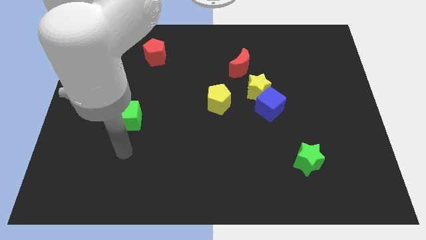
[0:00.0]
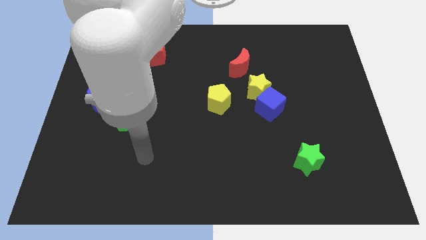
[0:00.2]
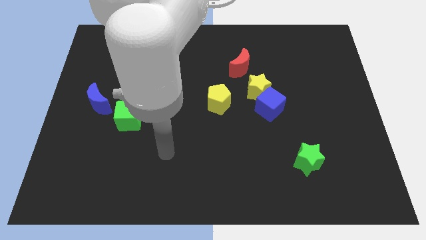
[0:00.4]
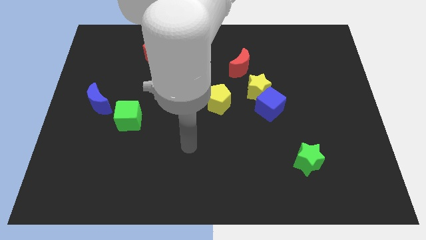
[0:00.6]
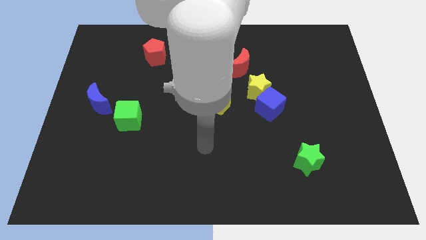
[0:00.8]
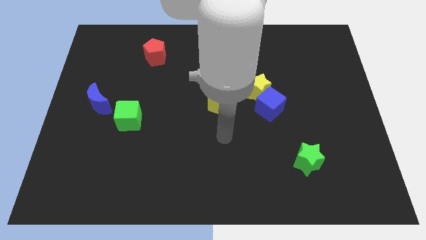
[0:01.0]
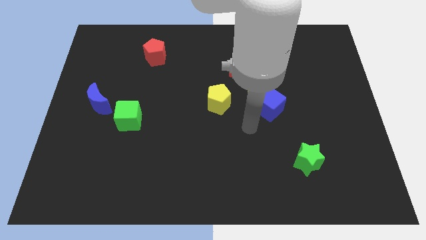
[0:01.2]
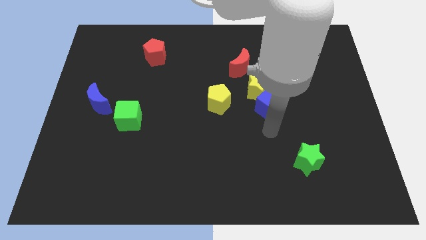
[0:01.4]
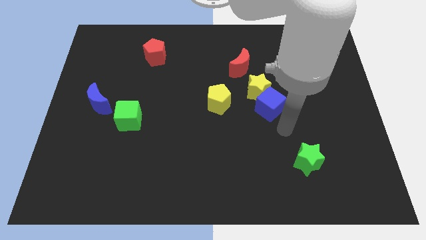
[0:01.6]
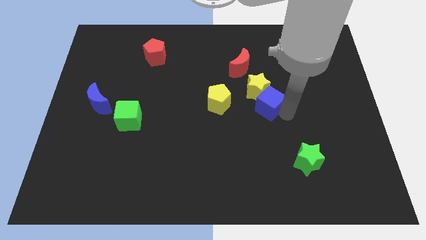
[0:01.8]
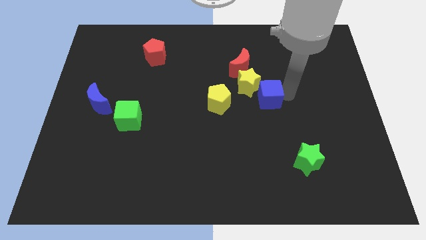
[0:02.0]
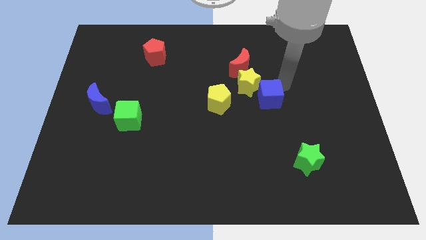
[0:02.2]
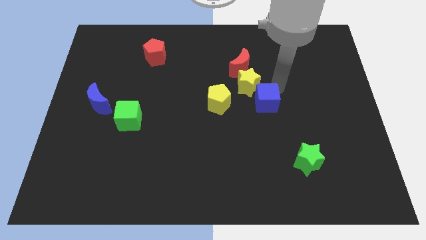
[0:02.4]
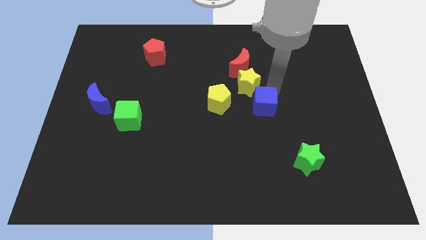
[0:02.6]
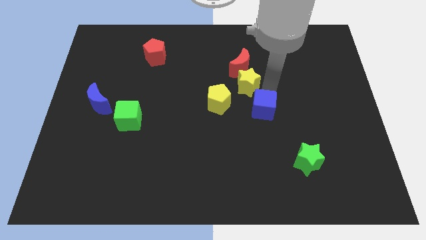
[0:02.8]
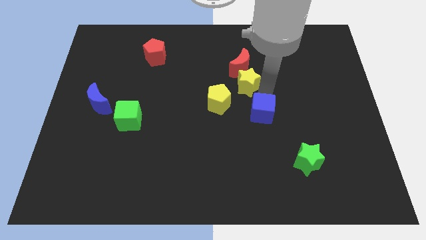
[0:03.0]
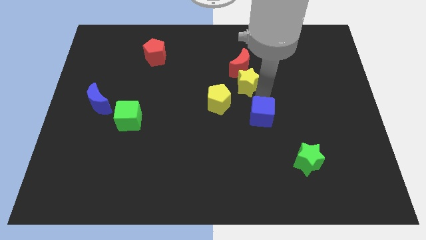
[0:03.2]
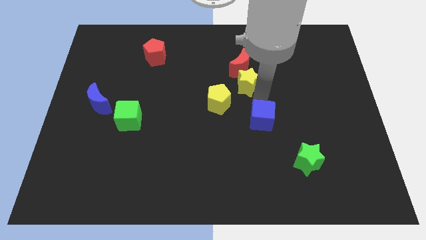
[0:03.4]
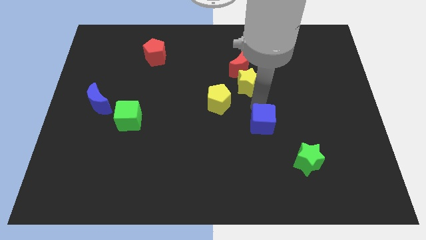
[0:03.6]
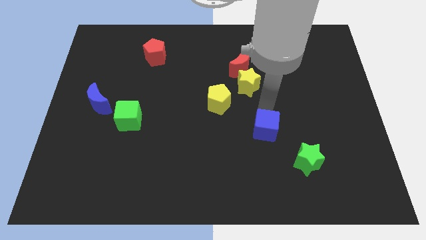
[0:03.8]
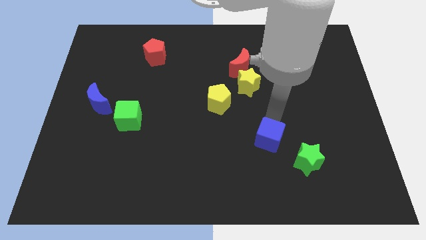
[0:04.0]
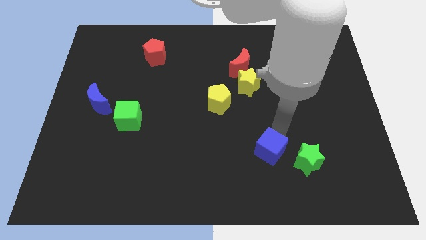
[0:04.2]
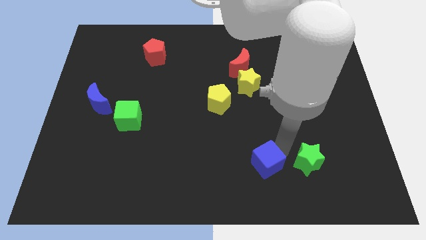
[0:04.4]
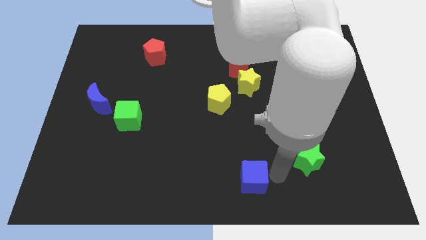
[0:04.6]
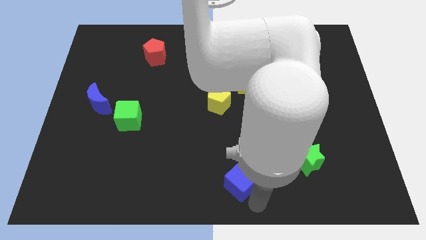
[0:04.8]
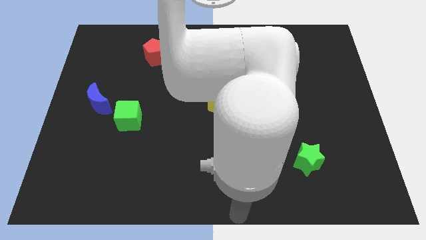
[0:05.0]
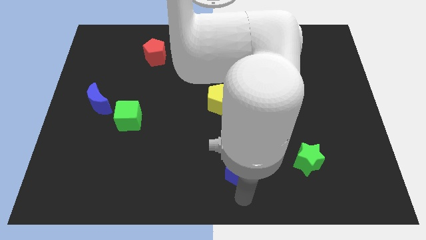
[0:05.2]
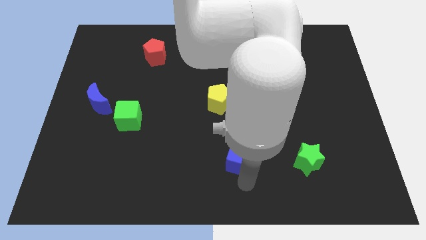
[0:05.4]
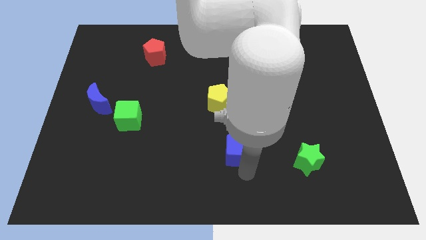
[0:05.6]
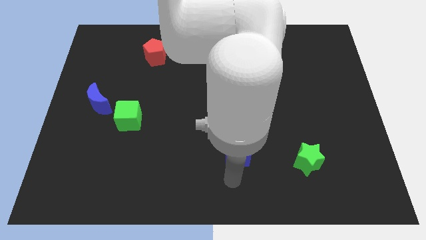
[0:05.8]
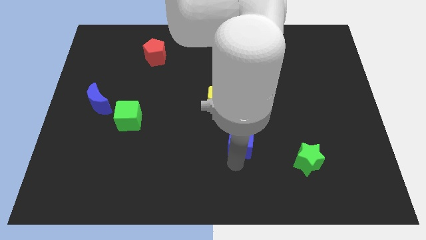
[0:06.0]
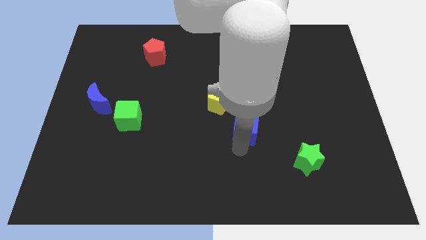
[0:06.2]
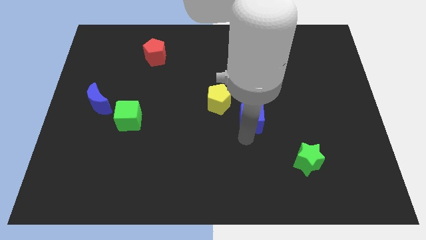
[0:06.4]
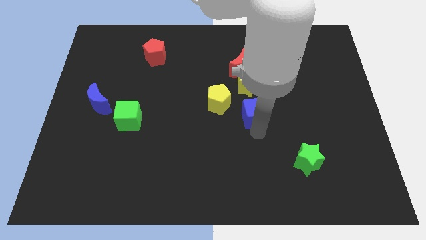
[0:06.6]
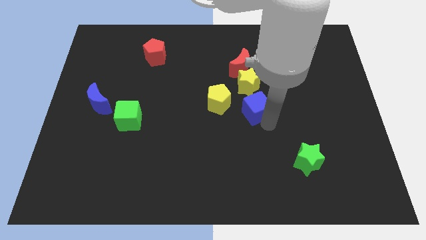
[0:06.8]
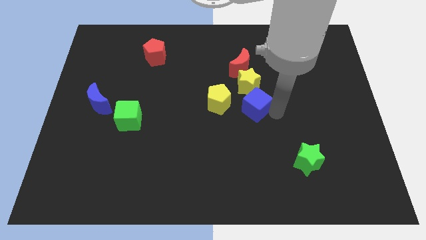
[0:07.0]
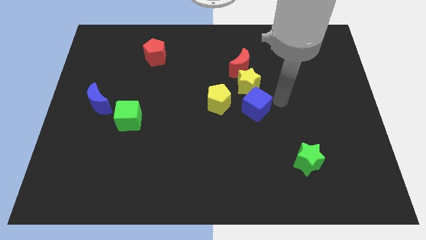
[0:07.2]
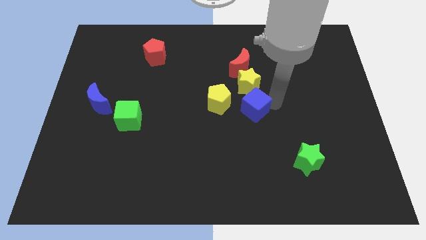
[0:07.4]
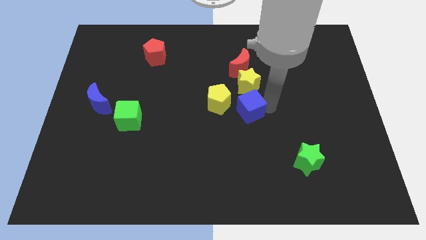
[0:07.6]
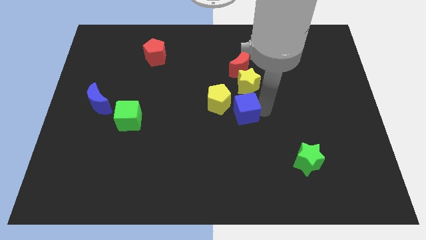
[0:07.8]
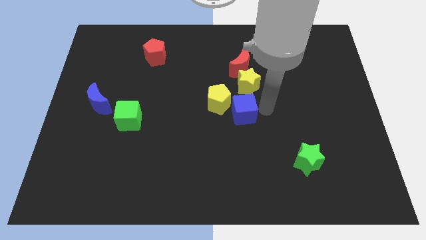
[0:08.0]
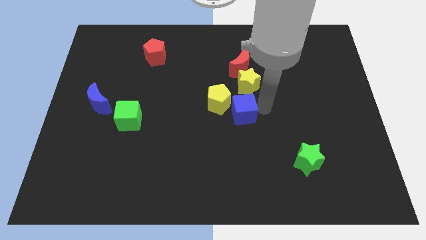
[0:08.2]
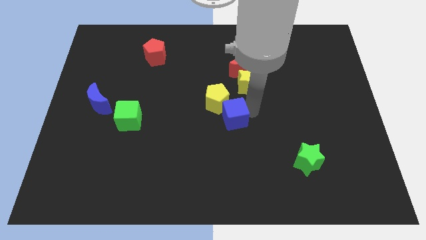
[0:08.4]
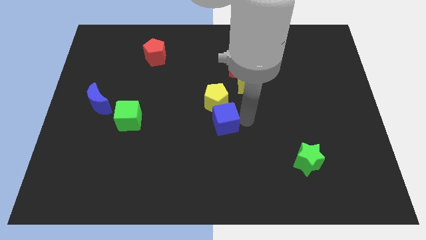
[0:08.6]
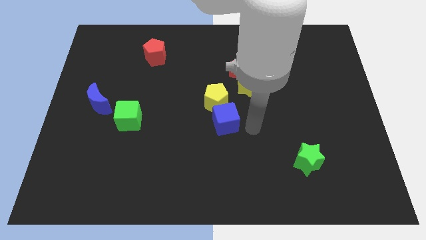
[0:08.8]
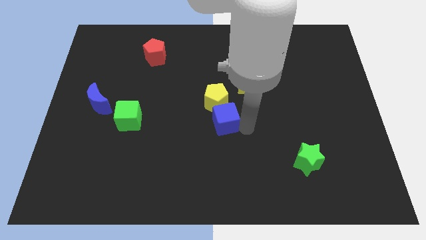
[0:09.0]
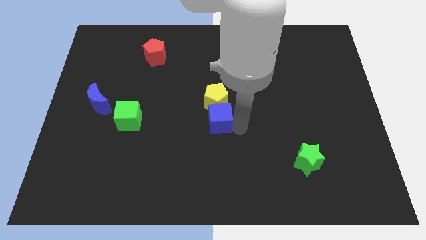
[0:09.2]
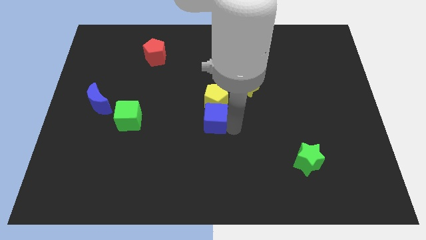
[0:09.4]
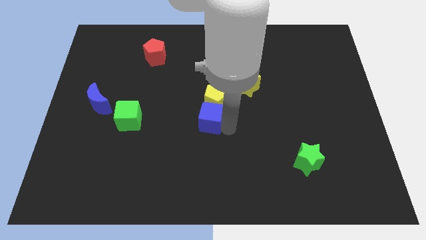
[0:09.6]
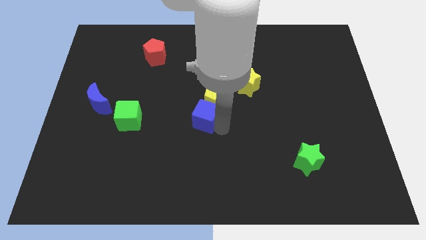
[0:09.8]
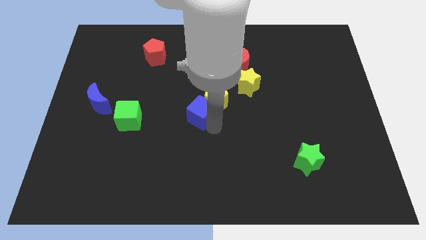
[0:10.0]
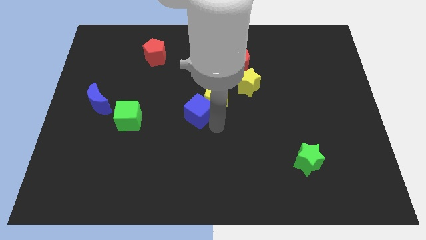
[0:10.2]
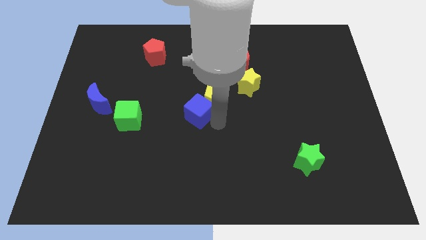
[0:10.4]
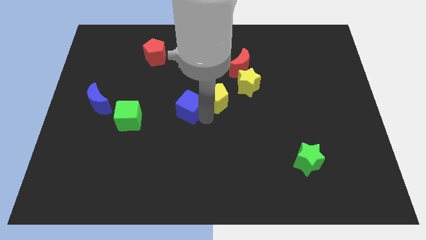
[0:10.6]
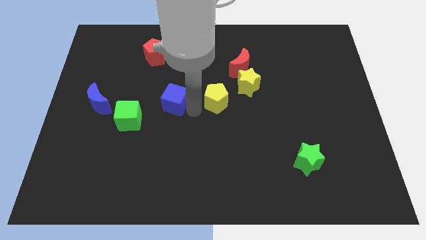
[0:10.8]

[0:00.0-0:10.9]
put the blue cube to the top right side of the green cube

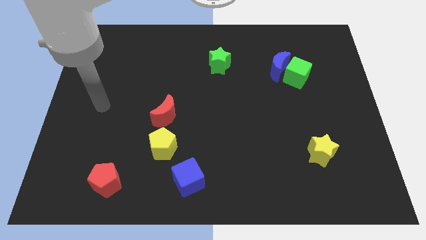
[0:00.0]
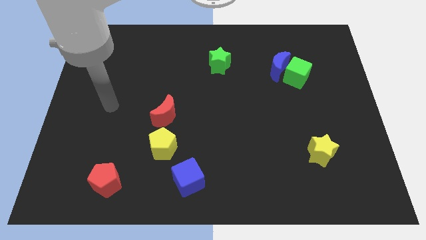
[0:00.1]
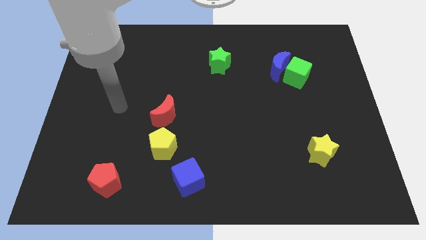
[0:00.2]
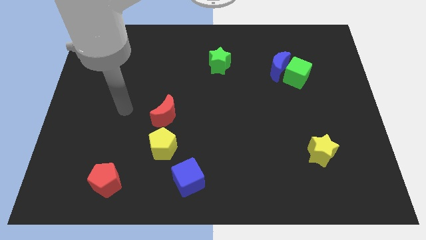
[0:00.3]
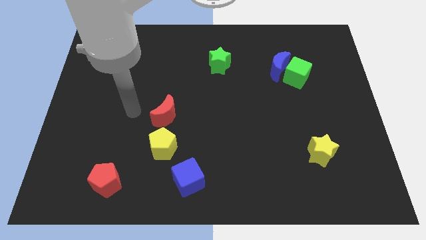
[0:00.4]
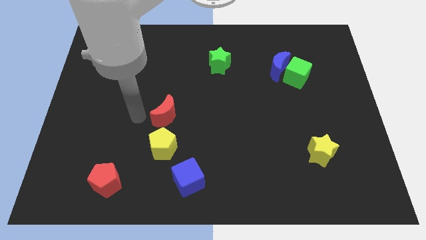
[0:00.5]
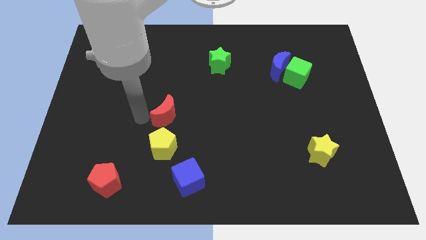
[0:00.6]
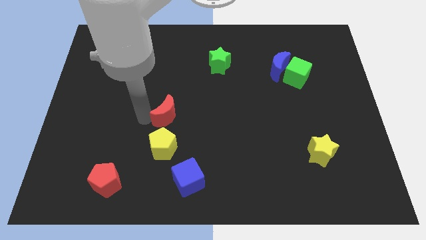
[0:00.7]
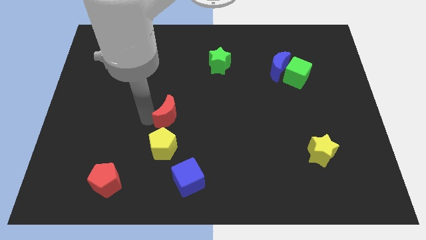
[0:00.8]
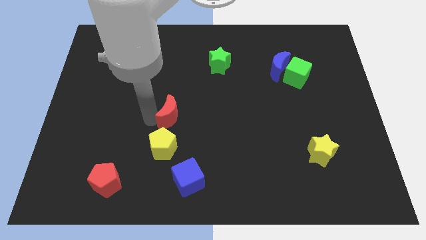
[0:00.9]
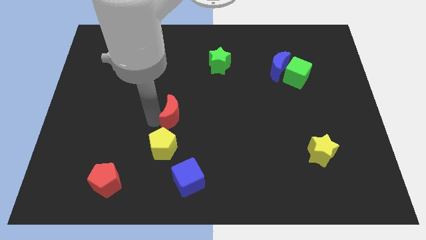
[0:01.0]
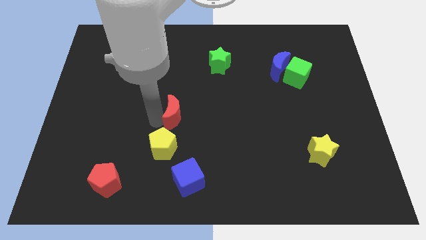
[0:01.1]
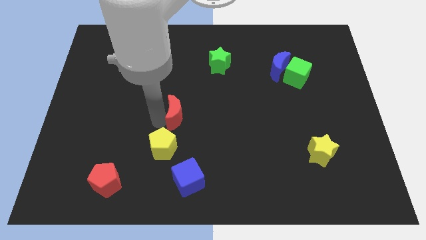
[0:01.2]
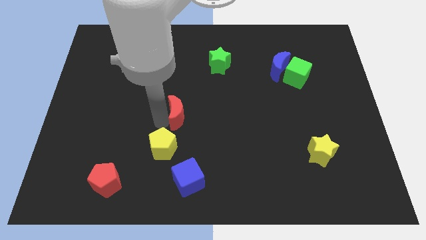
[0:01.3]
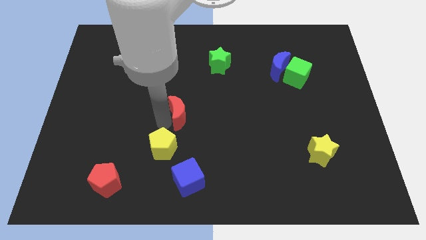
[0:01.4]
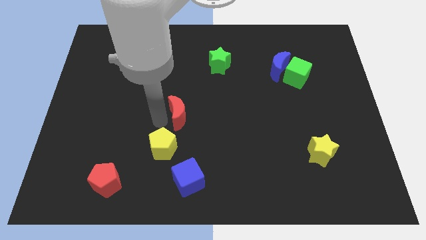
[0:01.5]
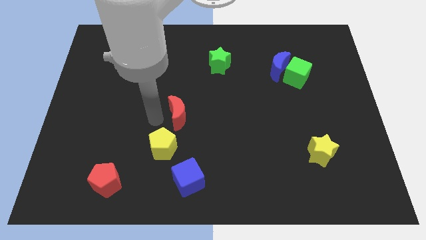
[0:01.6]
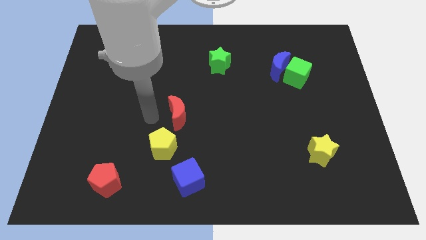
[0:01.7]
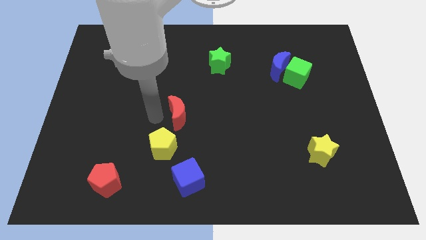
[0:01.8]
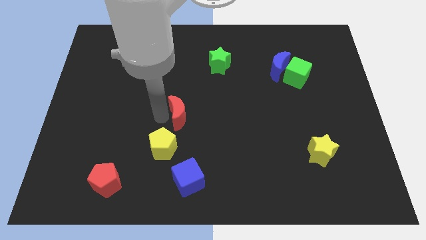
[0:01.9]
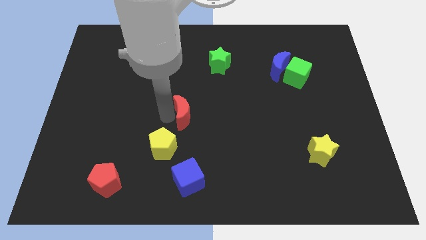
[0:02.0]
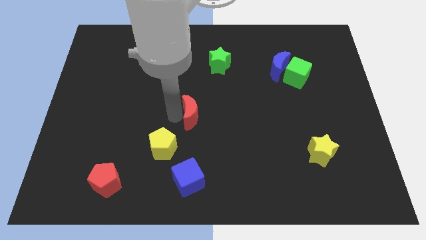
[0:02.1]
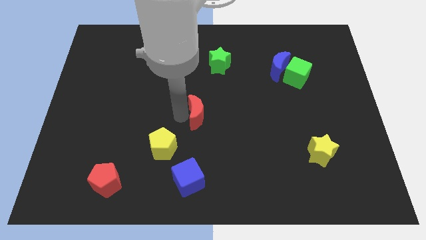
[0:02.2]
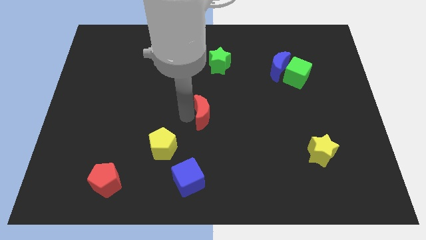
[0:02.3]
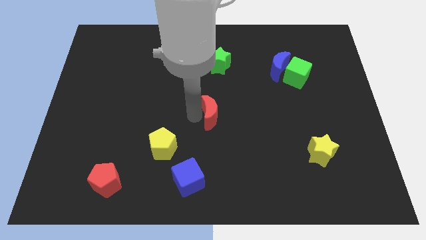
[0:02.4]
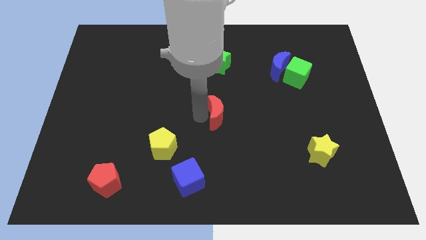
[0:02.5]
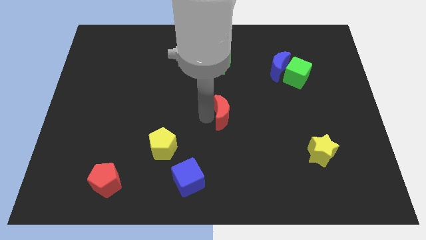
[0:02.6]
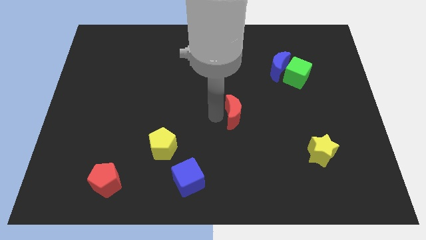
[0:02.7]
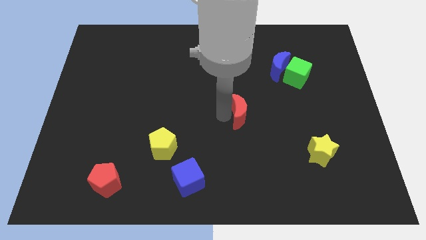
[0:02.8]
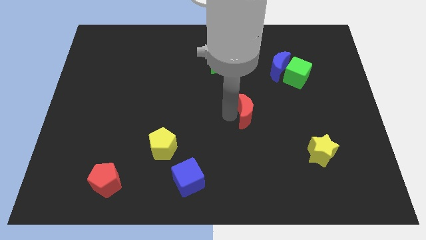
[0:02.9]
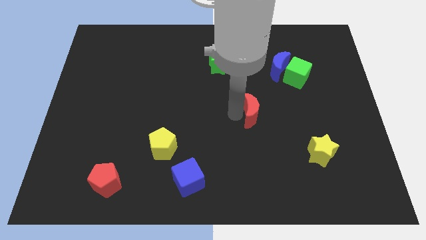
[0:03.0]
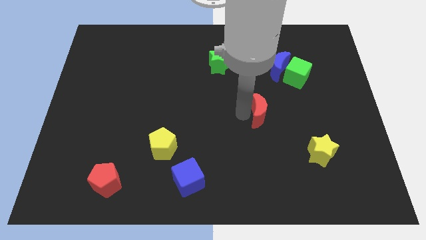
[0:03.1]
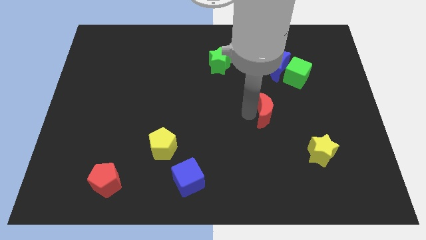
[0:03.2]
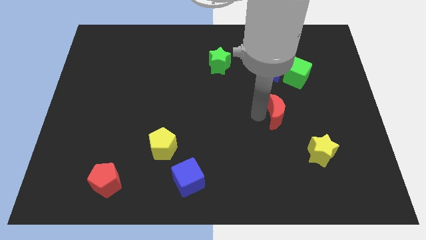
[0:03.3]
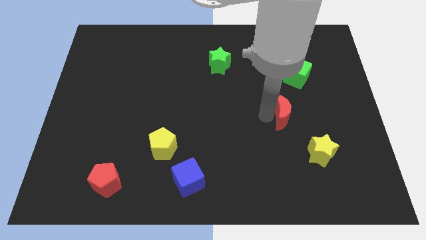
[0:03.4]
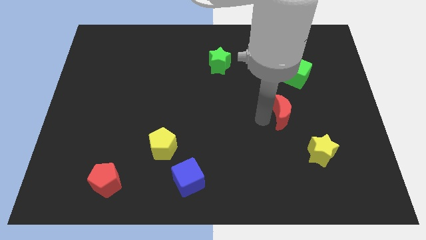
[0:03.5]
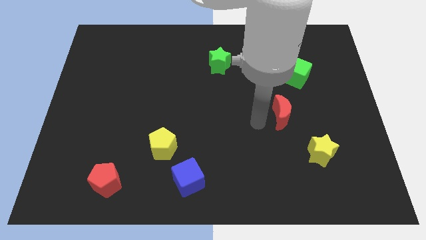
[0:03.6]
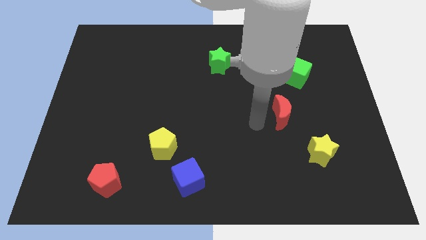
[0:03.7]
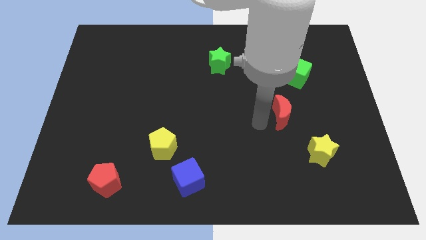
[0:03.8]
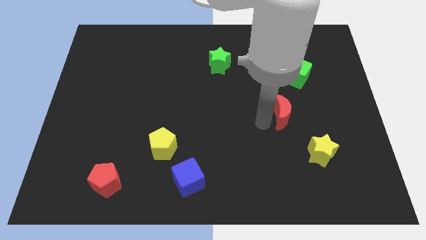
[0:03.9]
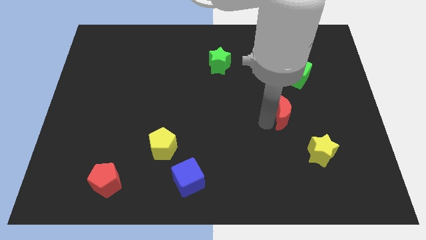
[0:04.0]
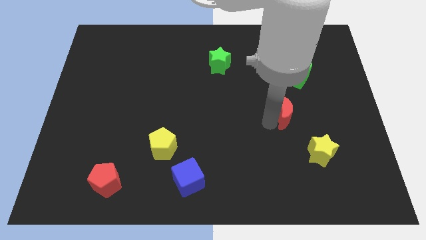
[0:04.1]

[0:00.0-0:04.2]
push the red moon below the green cube
